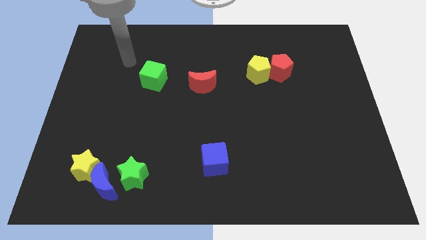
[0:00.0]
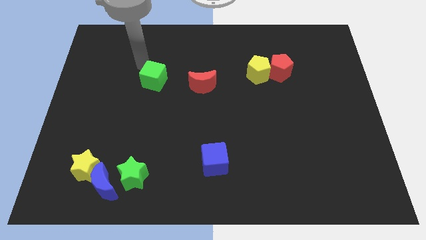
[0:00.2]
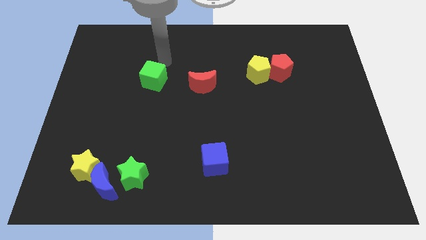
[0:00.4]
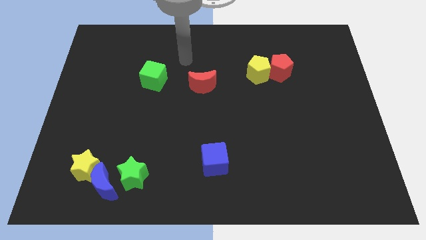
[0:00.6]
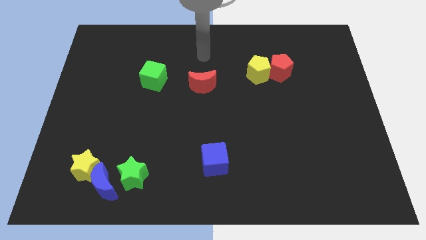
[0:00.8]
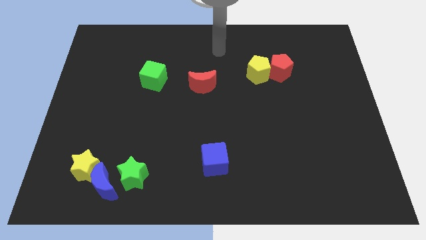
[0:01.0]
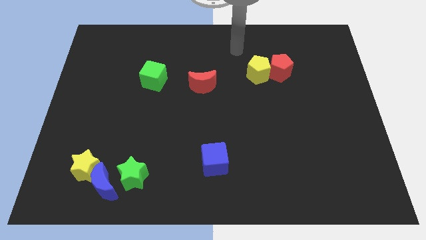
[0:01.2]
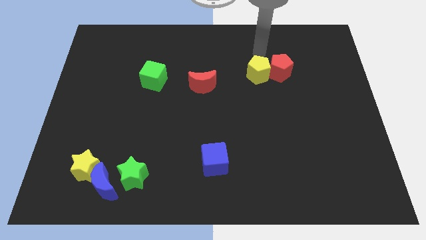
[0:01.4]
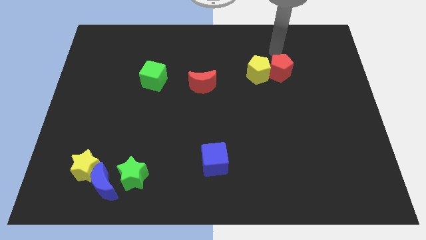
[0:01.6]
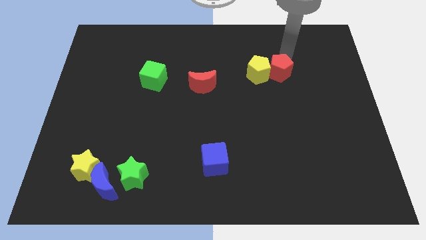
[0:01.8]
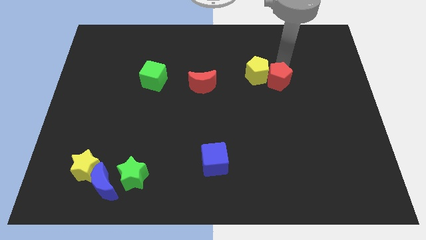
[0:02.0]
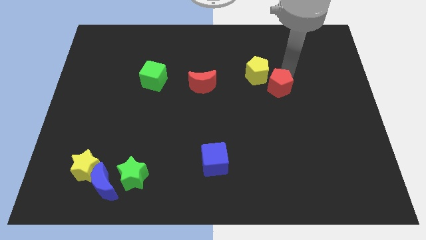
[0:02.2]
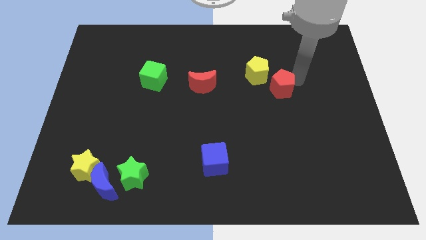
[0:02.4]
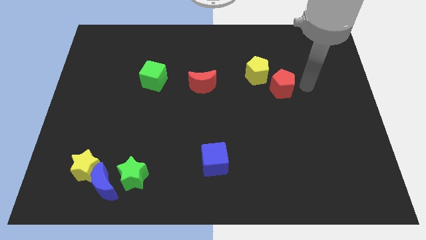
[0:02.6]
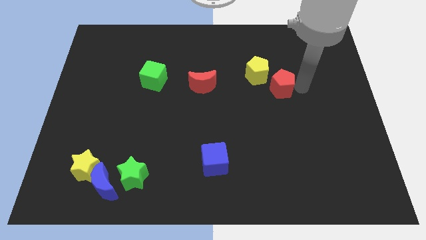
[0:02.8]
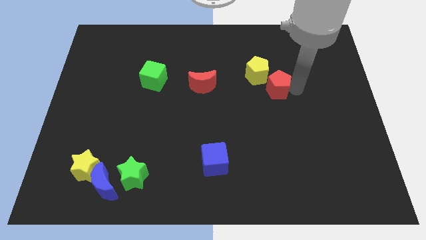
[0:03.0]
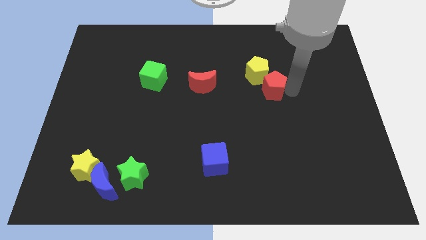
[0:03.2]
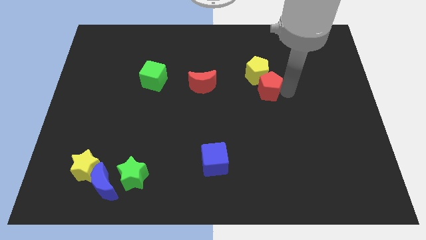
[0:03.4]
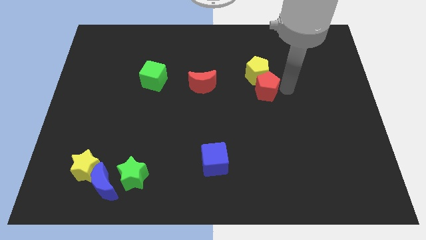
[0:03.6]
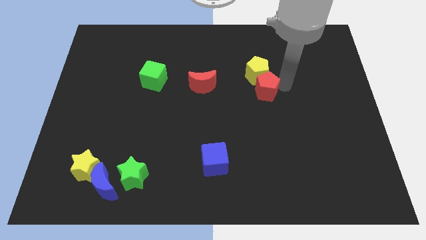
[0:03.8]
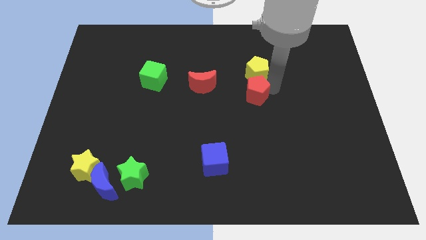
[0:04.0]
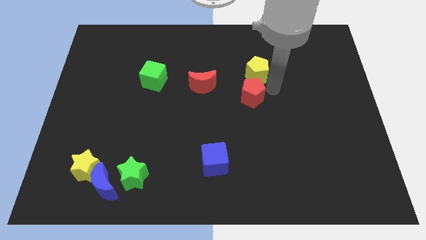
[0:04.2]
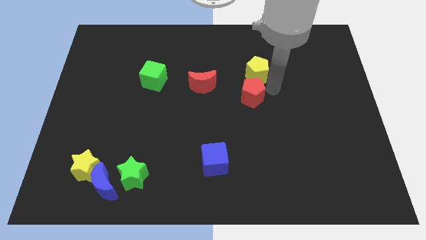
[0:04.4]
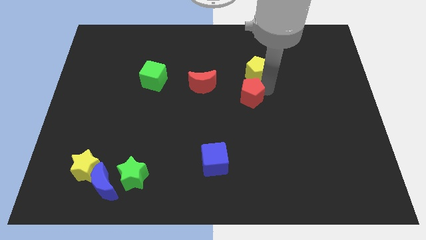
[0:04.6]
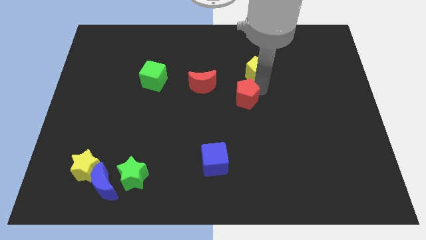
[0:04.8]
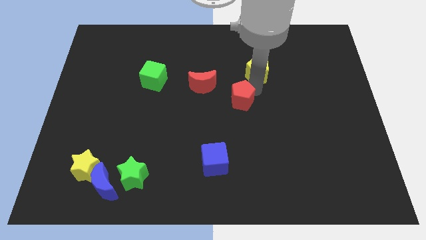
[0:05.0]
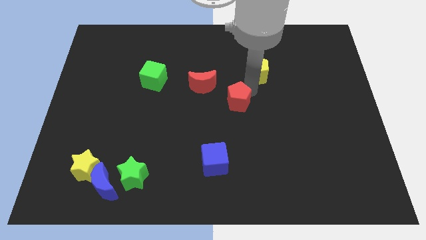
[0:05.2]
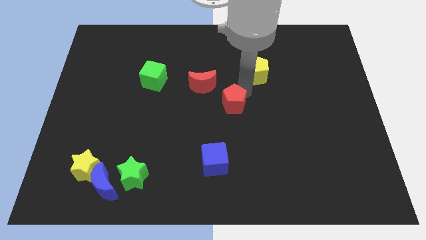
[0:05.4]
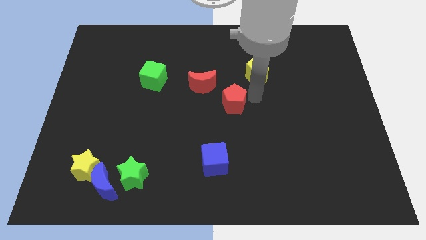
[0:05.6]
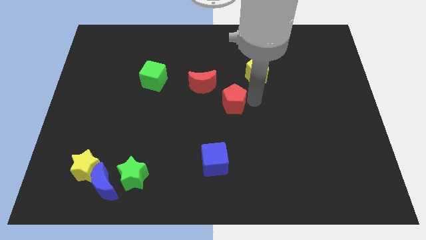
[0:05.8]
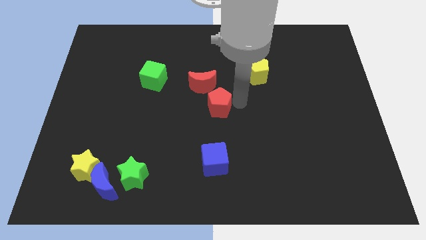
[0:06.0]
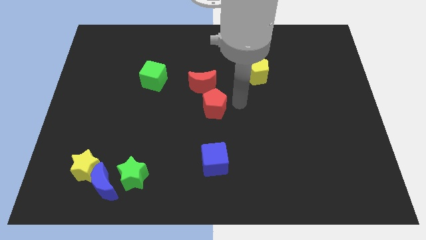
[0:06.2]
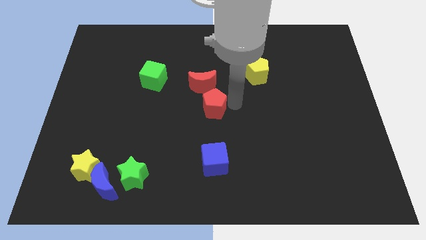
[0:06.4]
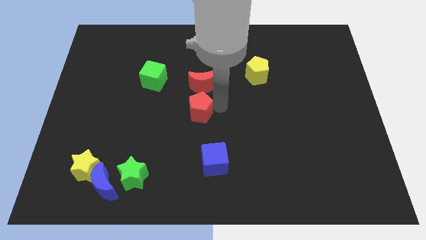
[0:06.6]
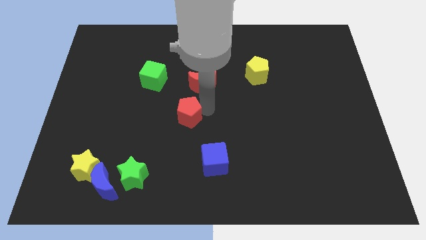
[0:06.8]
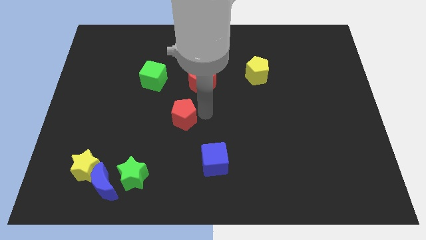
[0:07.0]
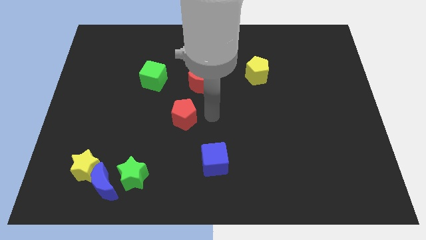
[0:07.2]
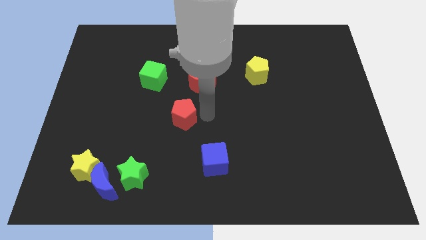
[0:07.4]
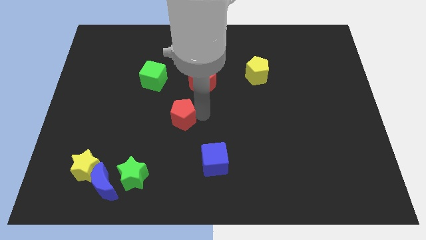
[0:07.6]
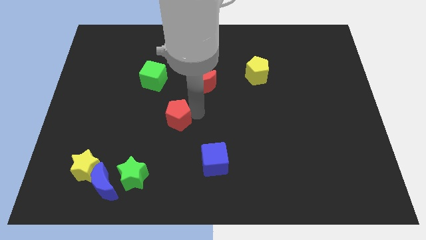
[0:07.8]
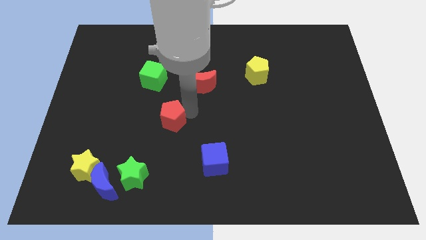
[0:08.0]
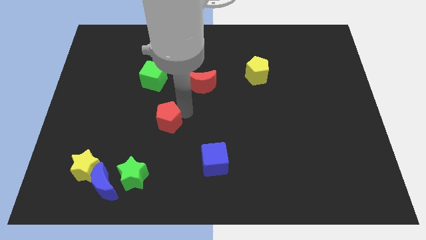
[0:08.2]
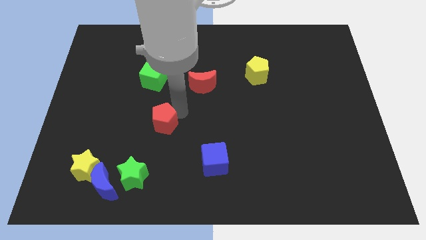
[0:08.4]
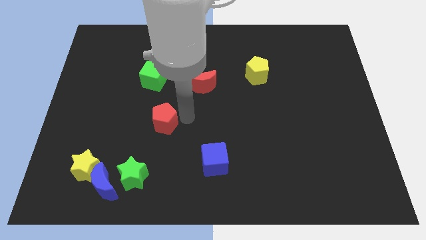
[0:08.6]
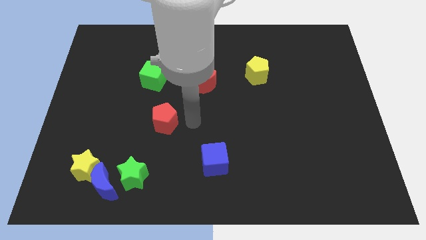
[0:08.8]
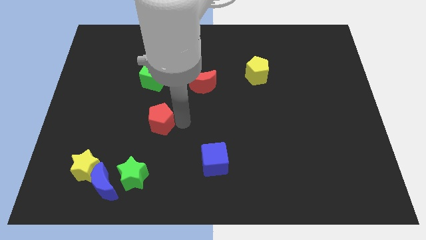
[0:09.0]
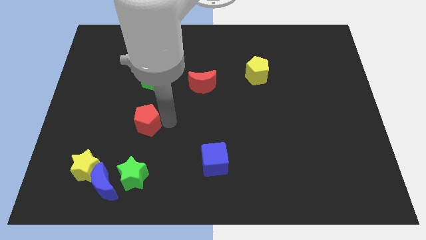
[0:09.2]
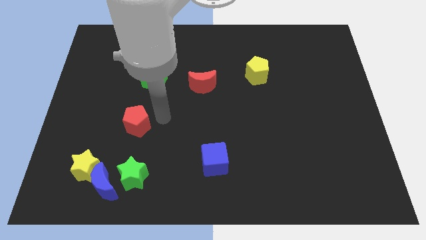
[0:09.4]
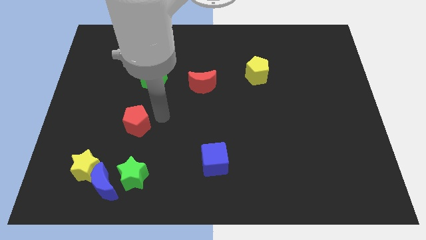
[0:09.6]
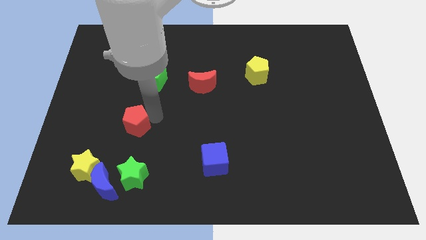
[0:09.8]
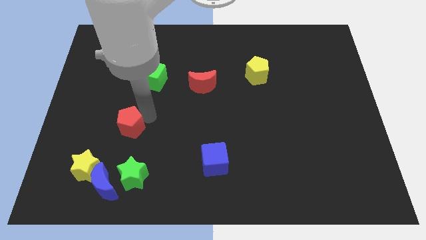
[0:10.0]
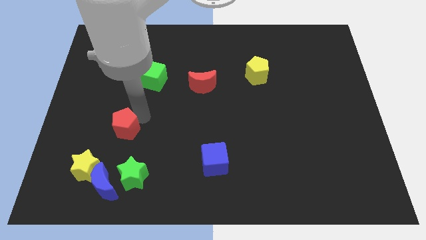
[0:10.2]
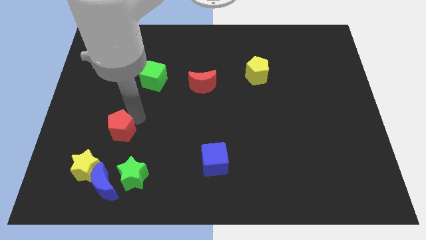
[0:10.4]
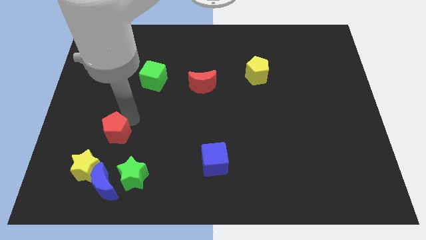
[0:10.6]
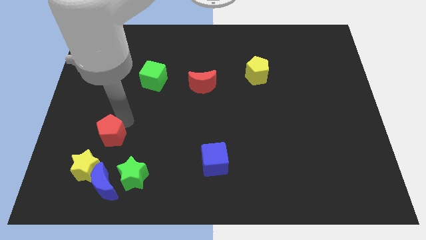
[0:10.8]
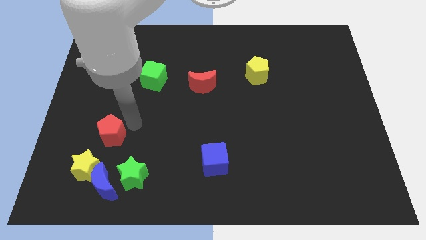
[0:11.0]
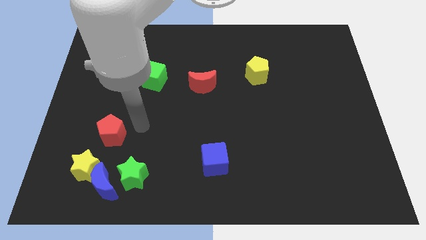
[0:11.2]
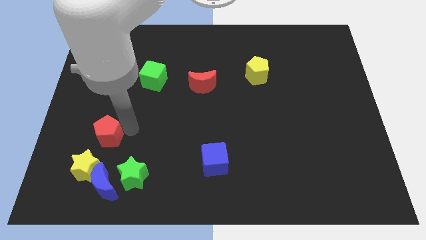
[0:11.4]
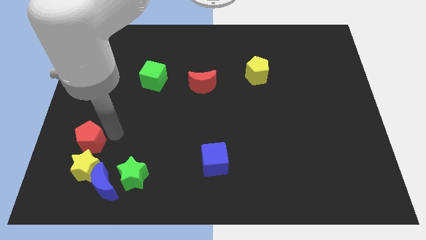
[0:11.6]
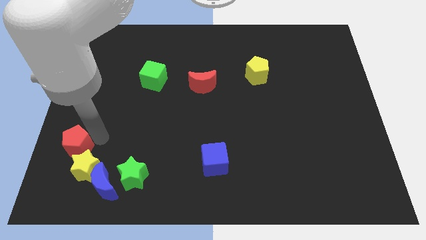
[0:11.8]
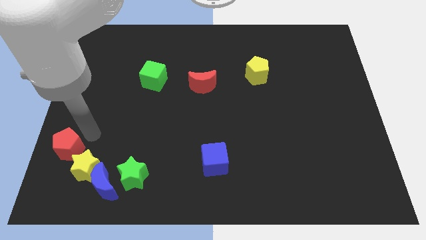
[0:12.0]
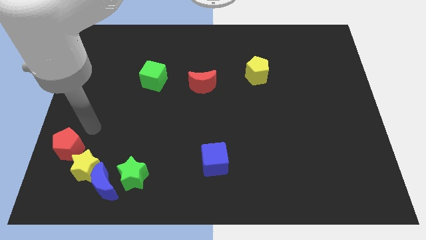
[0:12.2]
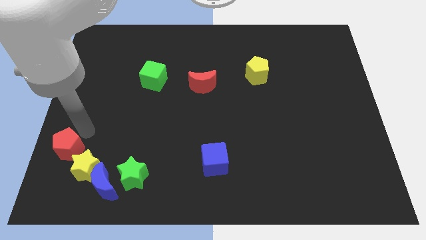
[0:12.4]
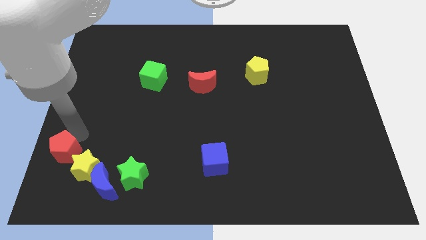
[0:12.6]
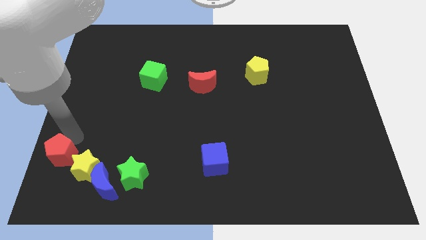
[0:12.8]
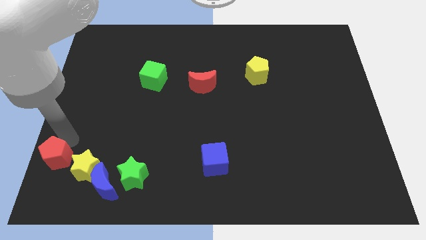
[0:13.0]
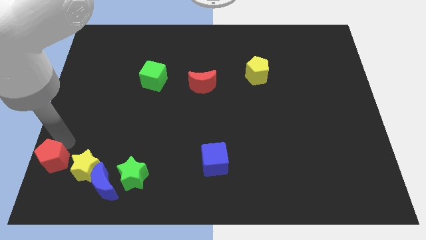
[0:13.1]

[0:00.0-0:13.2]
push the red pentagon to the bottom left
